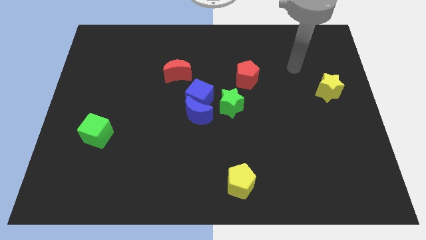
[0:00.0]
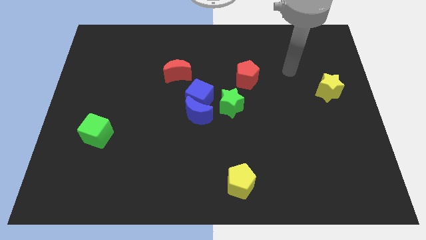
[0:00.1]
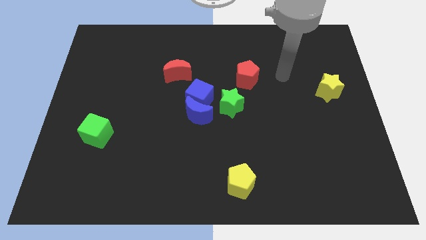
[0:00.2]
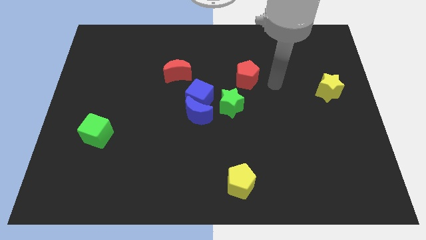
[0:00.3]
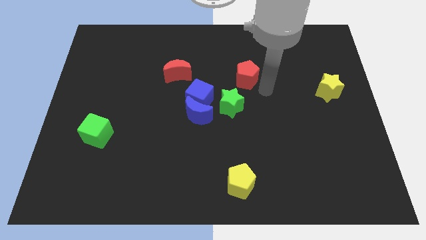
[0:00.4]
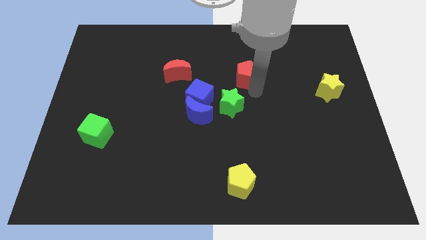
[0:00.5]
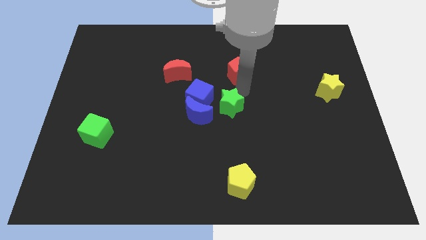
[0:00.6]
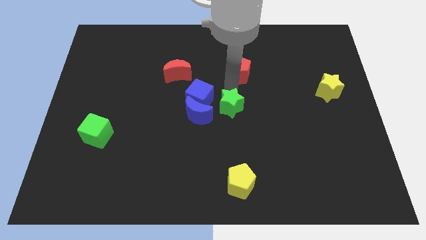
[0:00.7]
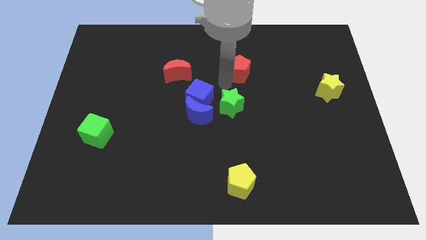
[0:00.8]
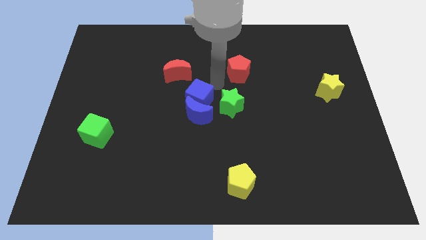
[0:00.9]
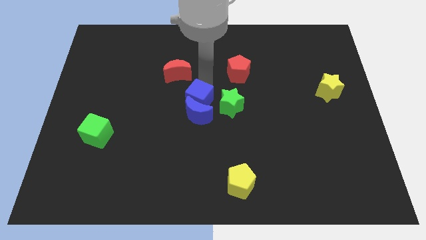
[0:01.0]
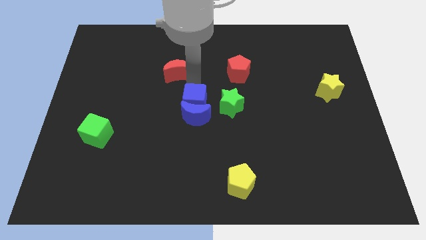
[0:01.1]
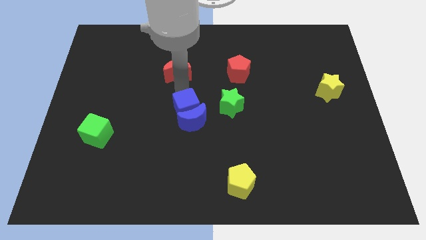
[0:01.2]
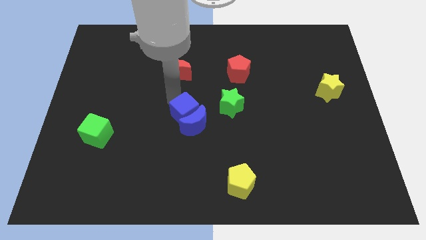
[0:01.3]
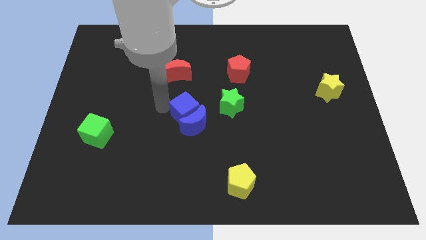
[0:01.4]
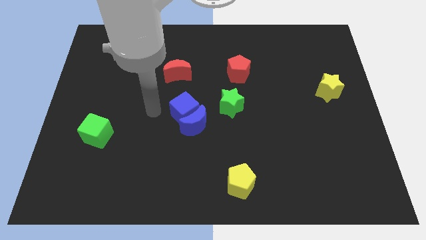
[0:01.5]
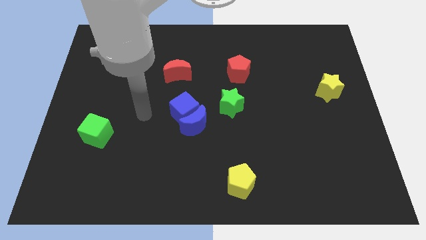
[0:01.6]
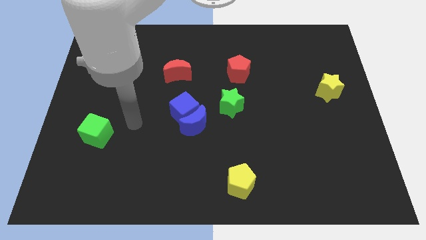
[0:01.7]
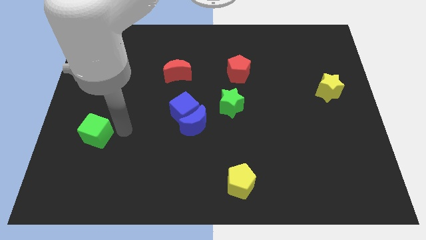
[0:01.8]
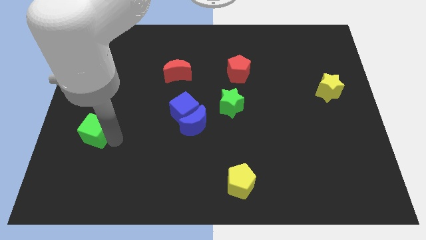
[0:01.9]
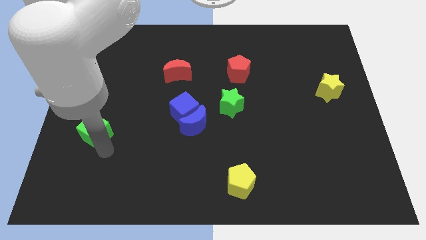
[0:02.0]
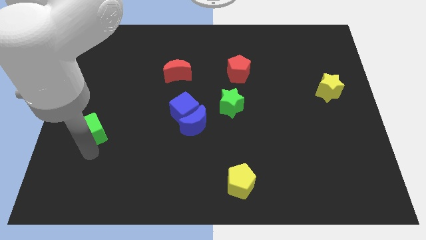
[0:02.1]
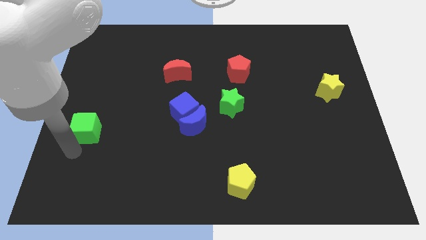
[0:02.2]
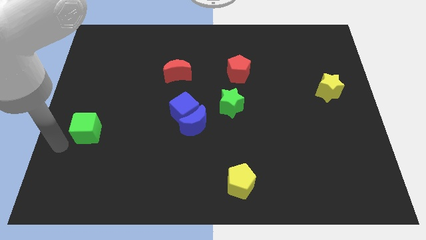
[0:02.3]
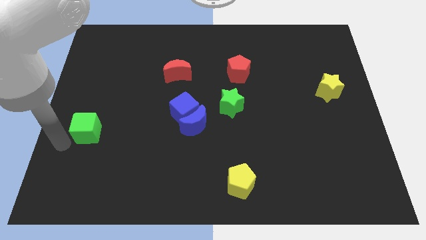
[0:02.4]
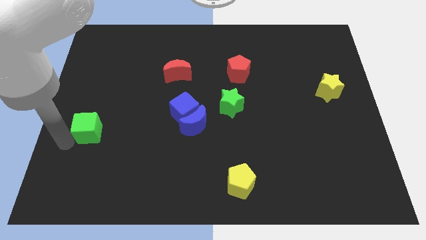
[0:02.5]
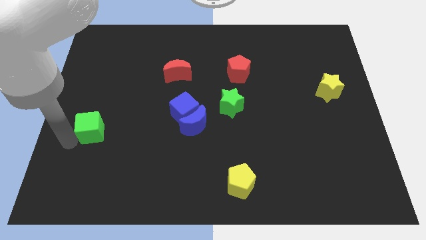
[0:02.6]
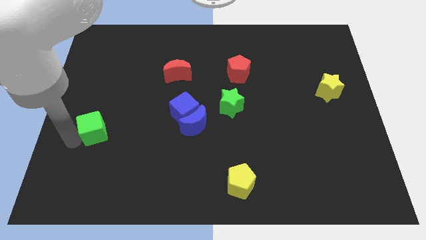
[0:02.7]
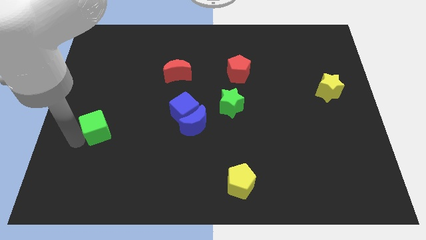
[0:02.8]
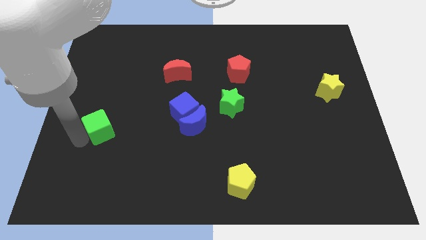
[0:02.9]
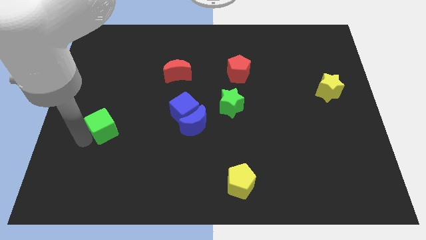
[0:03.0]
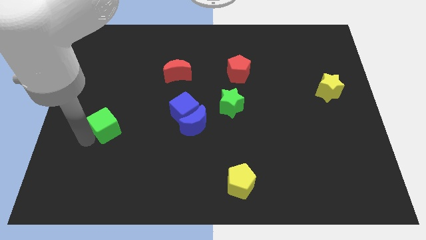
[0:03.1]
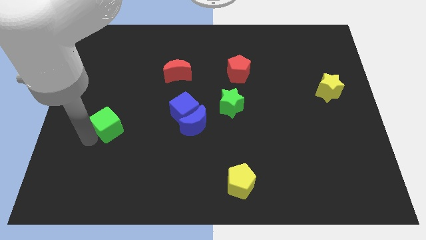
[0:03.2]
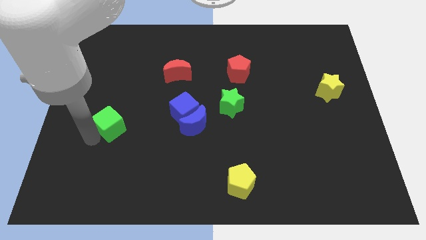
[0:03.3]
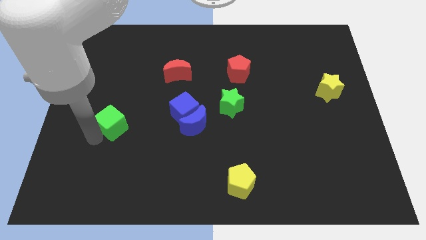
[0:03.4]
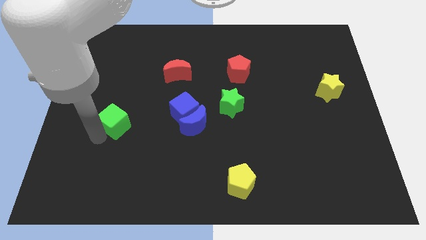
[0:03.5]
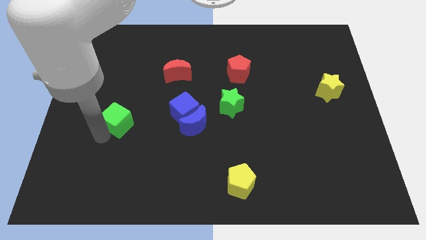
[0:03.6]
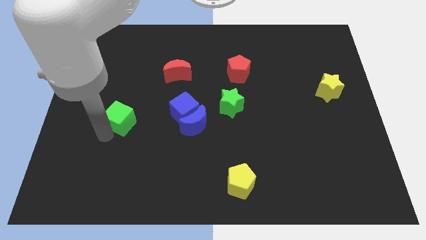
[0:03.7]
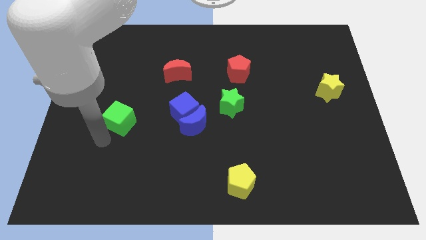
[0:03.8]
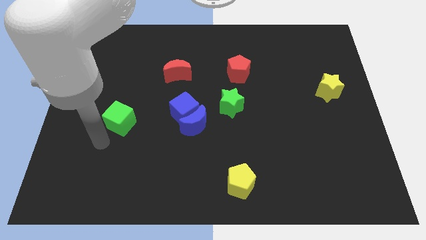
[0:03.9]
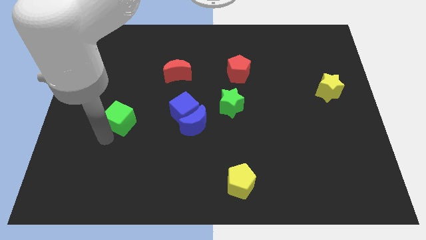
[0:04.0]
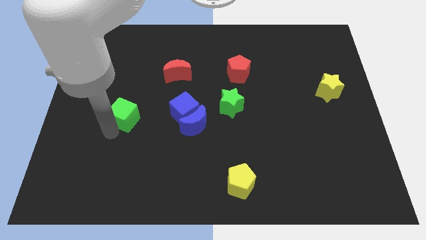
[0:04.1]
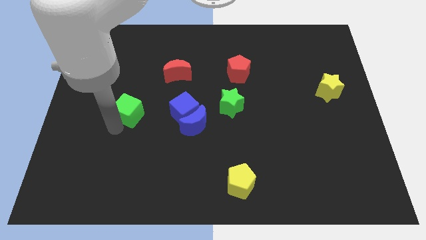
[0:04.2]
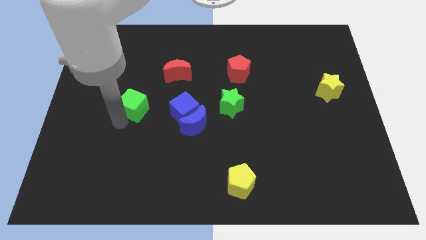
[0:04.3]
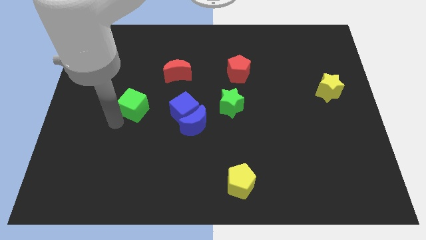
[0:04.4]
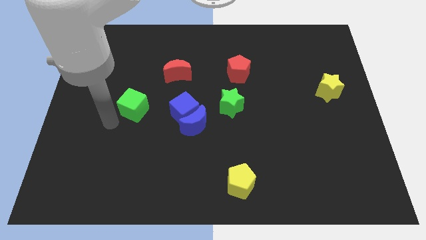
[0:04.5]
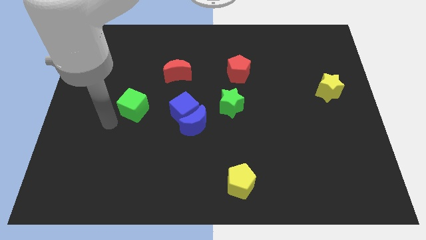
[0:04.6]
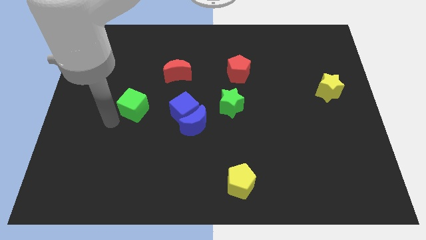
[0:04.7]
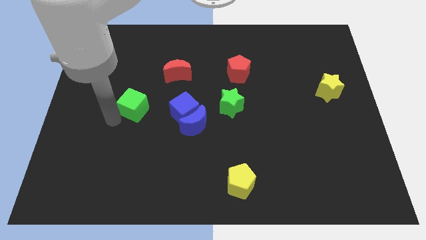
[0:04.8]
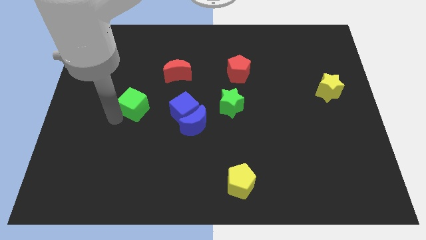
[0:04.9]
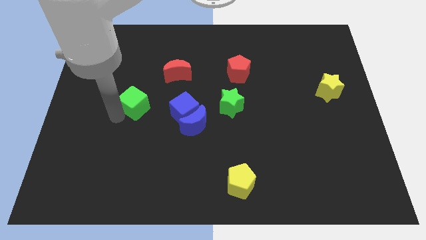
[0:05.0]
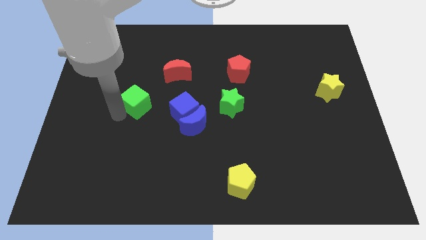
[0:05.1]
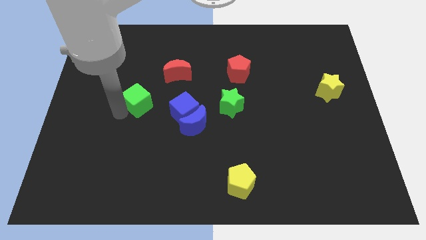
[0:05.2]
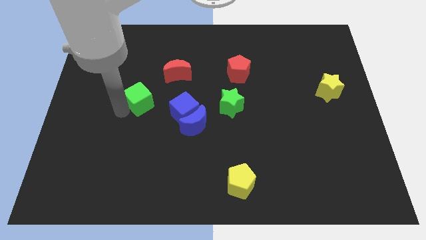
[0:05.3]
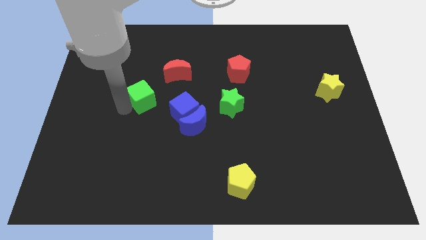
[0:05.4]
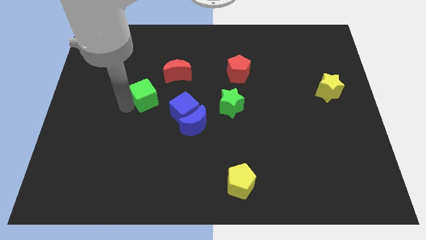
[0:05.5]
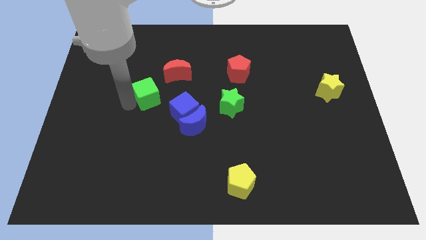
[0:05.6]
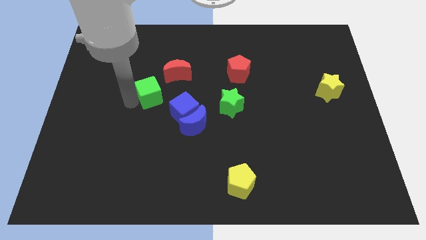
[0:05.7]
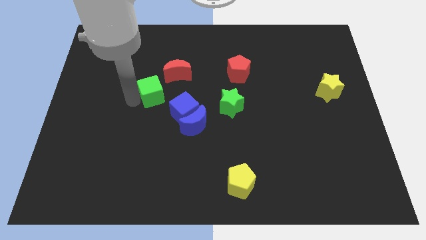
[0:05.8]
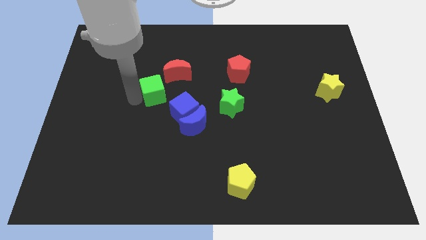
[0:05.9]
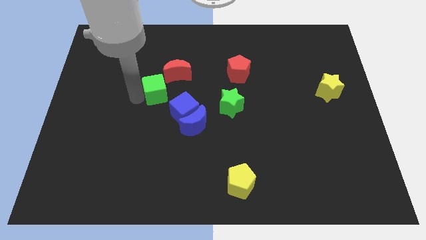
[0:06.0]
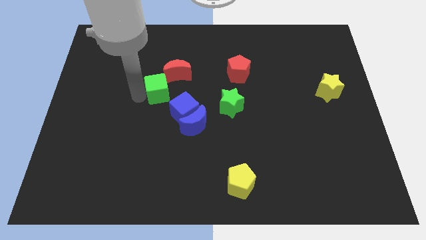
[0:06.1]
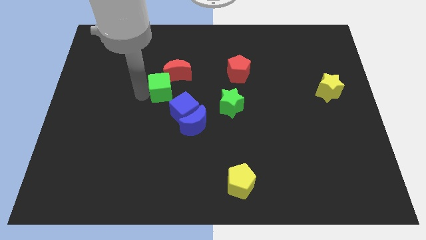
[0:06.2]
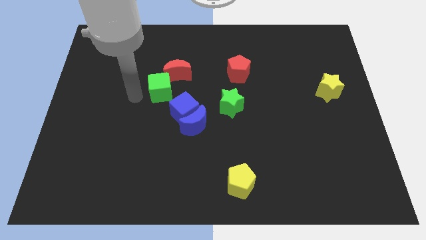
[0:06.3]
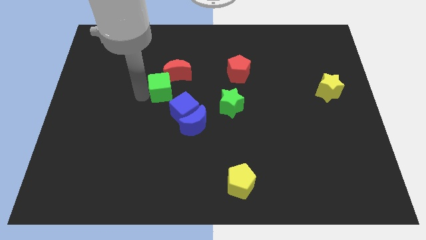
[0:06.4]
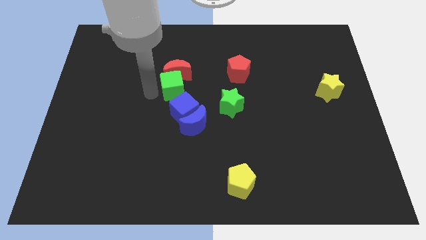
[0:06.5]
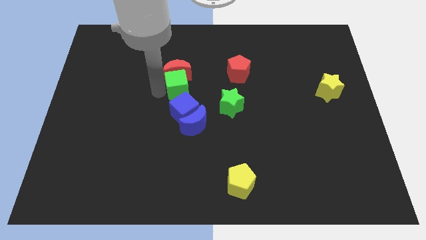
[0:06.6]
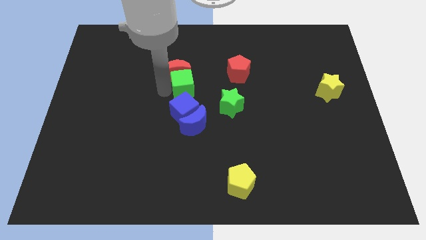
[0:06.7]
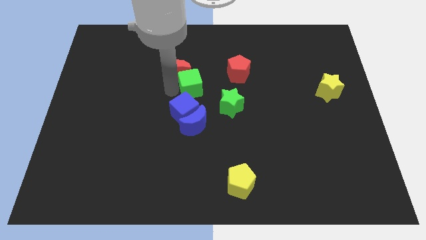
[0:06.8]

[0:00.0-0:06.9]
slide the green cube just right of the red moon

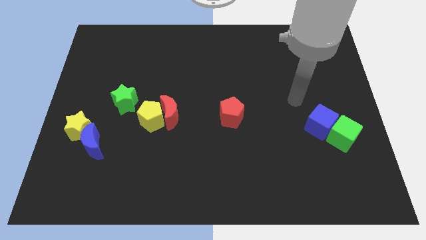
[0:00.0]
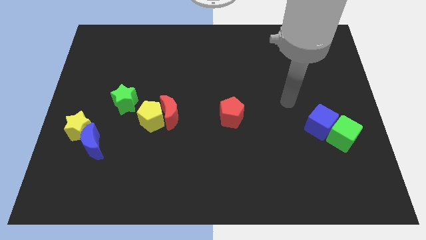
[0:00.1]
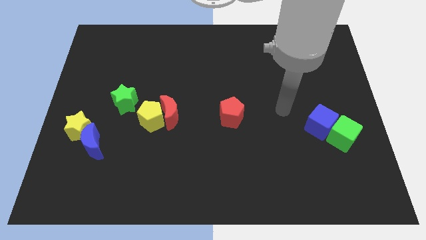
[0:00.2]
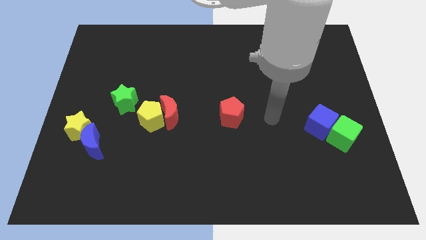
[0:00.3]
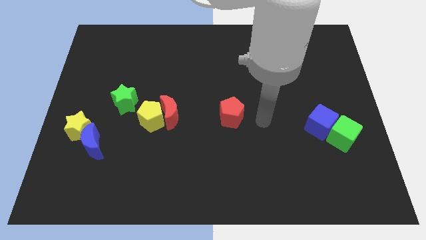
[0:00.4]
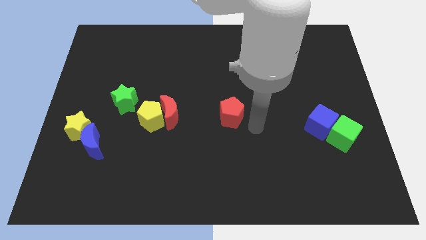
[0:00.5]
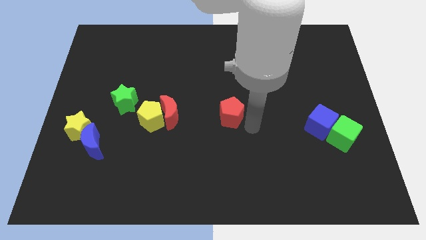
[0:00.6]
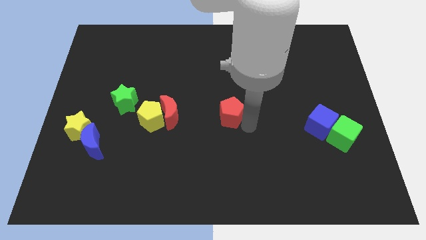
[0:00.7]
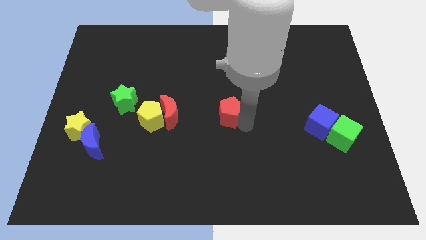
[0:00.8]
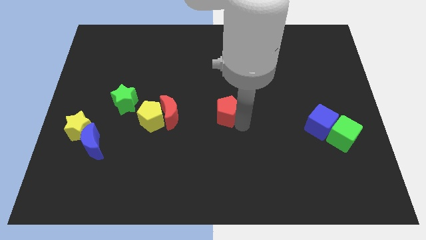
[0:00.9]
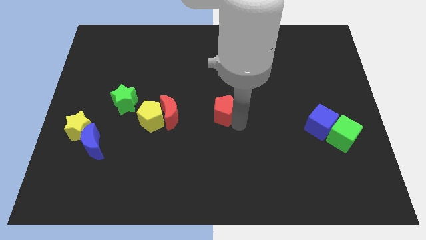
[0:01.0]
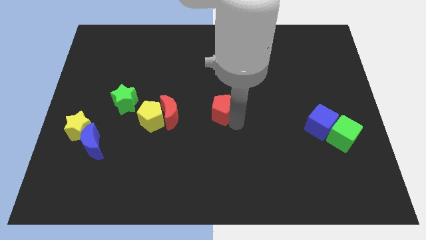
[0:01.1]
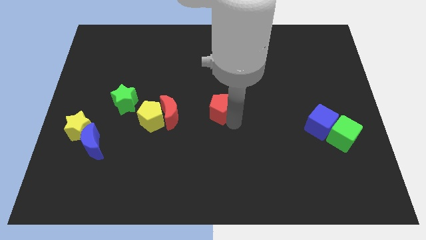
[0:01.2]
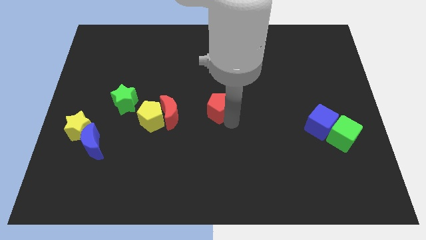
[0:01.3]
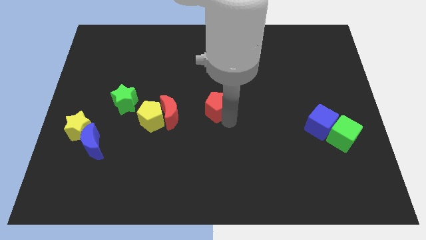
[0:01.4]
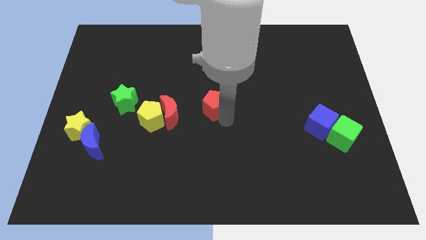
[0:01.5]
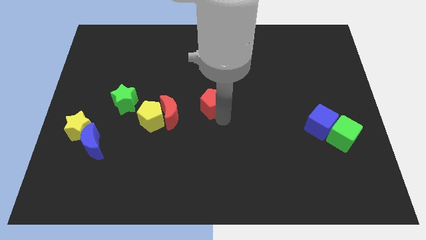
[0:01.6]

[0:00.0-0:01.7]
move the red pentagon diagonally up and to the right of the red moon
